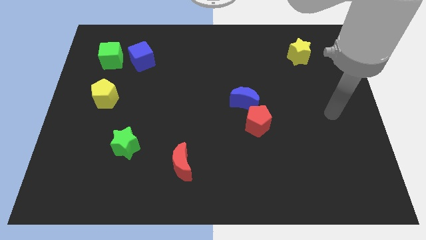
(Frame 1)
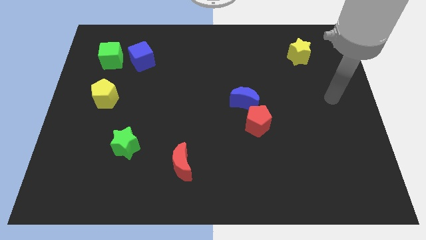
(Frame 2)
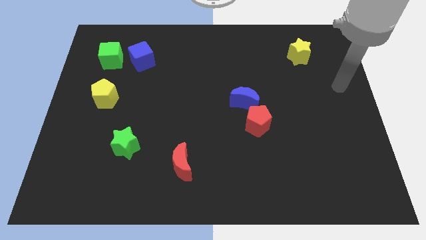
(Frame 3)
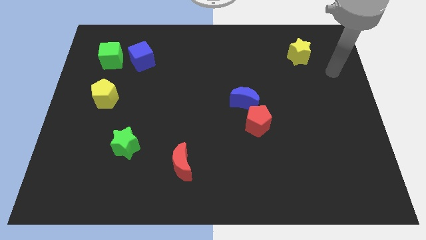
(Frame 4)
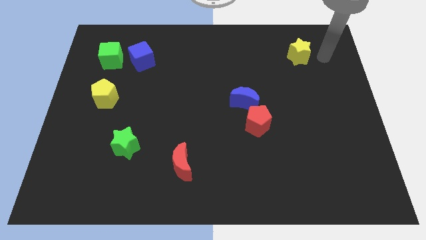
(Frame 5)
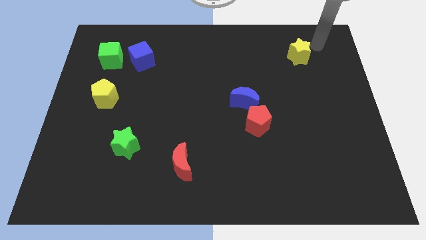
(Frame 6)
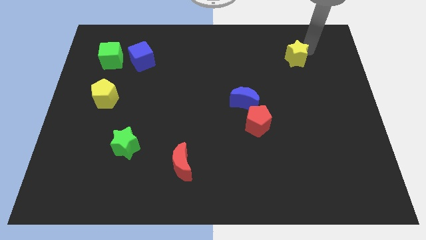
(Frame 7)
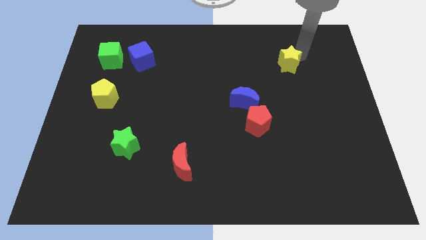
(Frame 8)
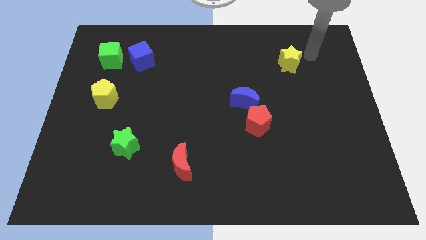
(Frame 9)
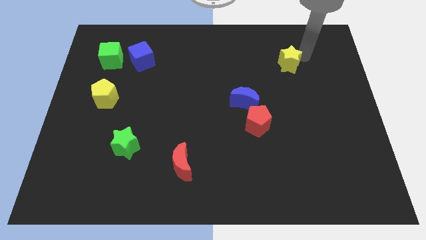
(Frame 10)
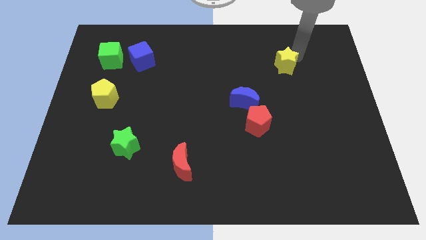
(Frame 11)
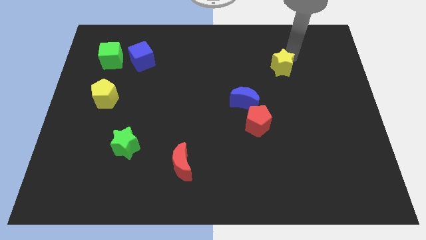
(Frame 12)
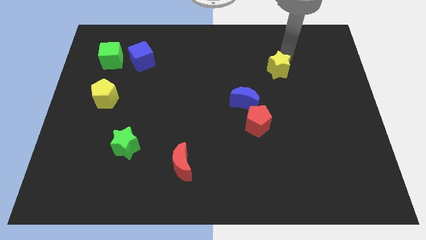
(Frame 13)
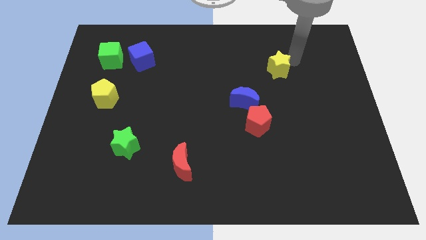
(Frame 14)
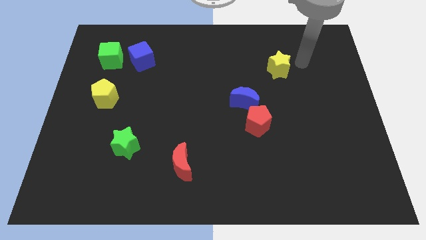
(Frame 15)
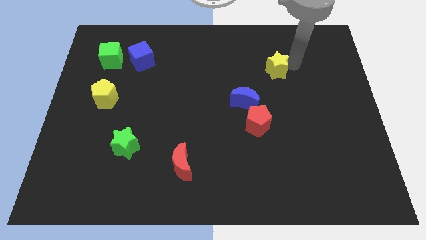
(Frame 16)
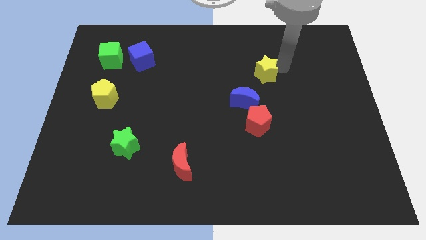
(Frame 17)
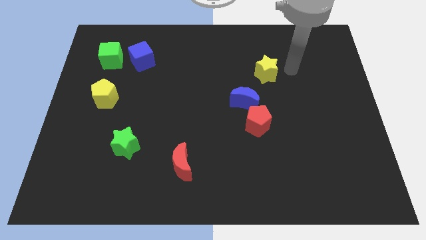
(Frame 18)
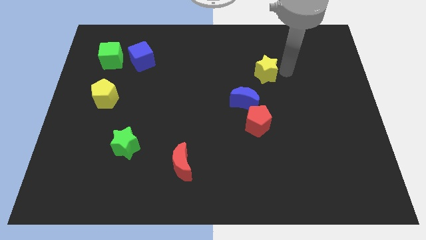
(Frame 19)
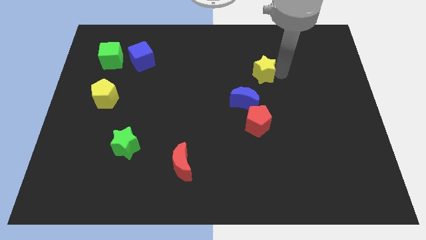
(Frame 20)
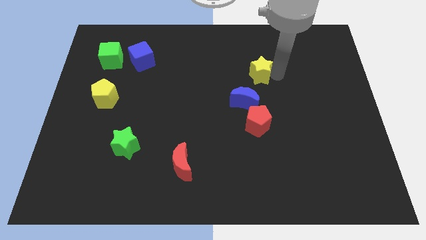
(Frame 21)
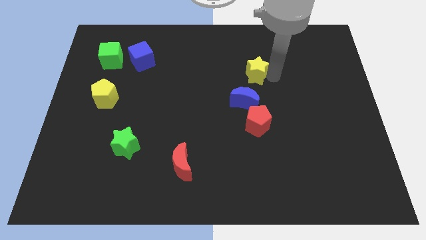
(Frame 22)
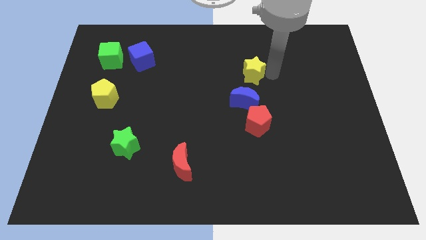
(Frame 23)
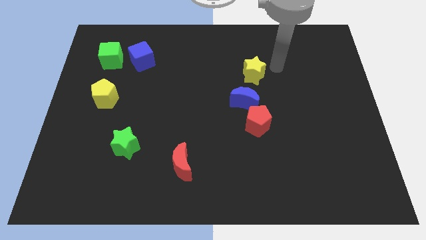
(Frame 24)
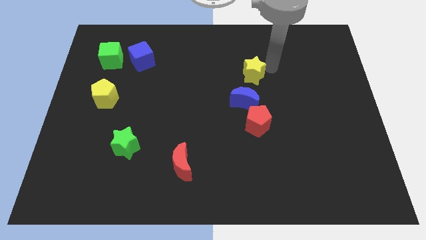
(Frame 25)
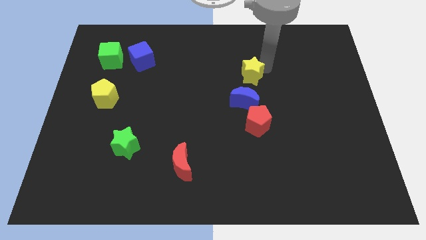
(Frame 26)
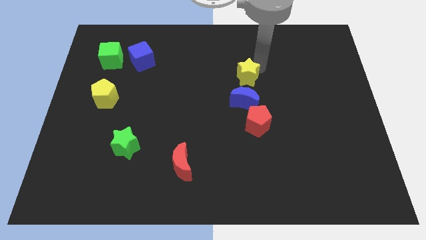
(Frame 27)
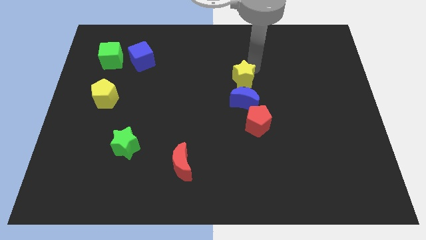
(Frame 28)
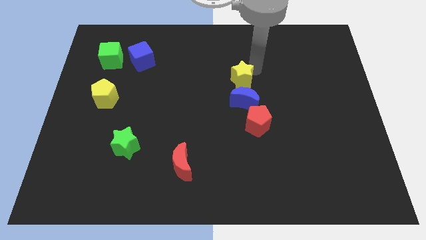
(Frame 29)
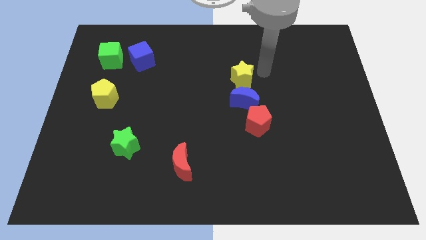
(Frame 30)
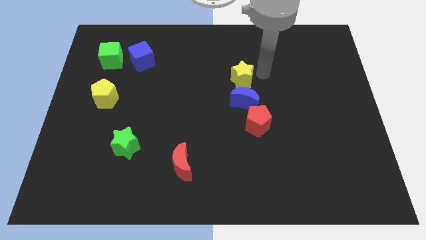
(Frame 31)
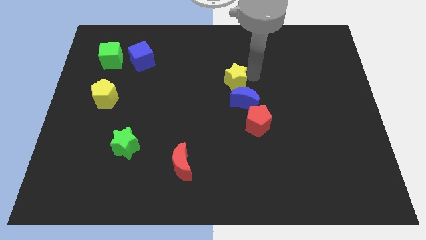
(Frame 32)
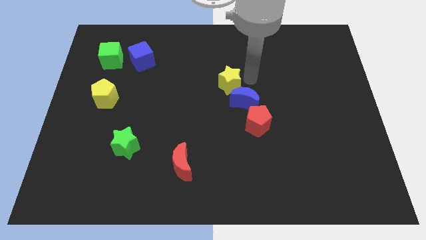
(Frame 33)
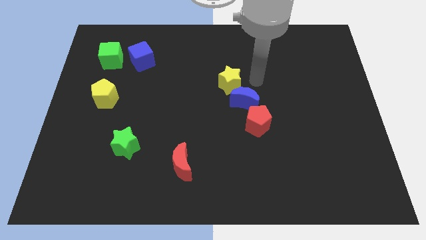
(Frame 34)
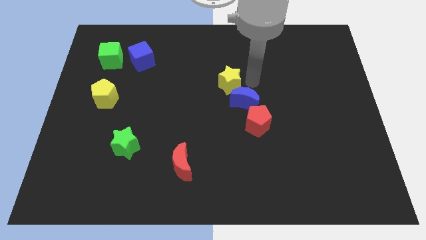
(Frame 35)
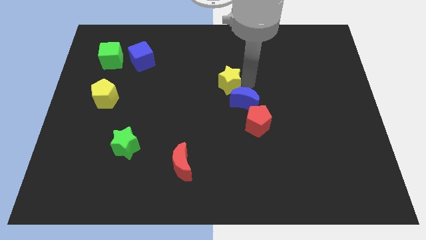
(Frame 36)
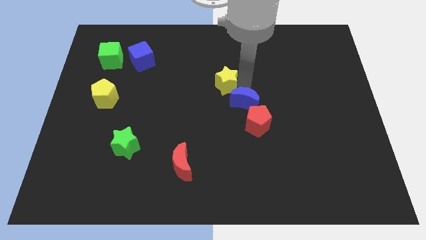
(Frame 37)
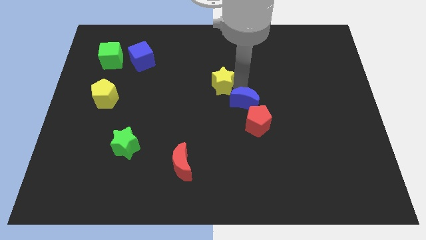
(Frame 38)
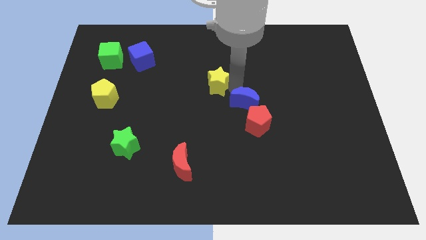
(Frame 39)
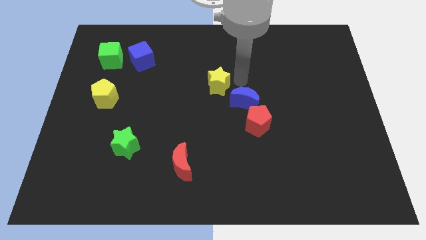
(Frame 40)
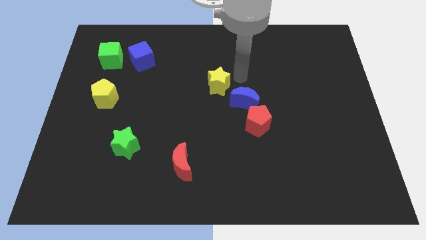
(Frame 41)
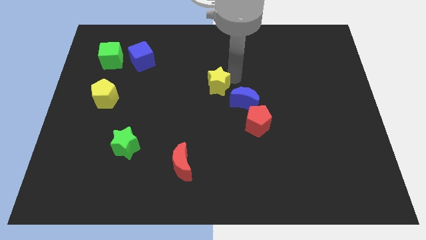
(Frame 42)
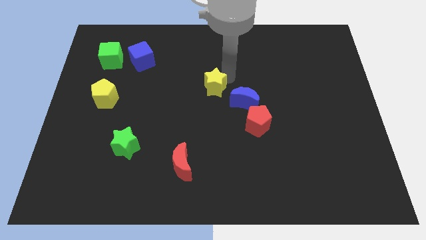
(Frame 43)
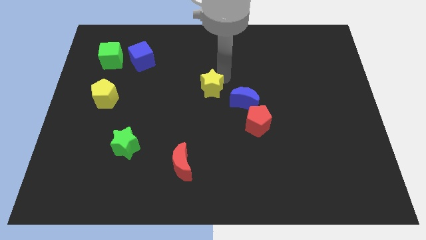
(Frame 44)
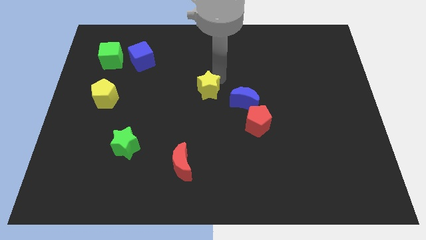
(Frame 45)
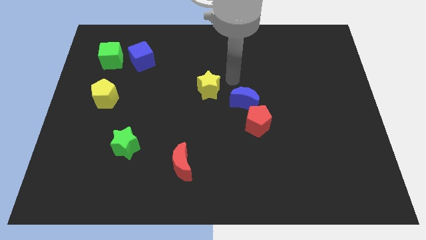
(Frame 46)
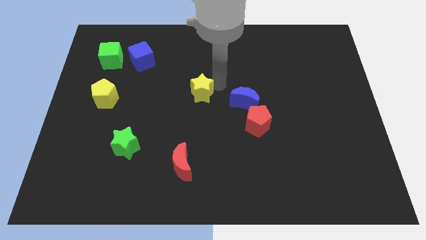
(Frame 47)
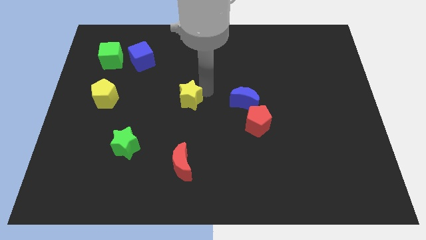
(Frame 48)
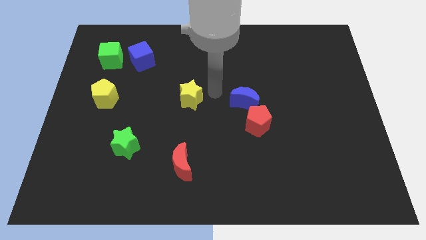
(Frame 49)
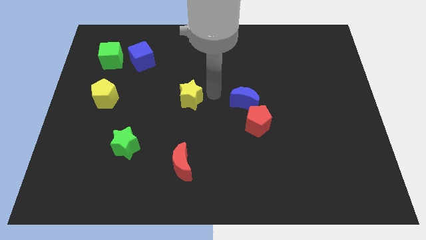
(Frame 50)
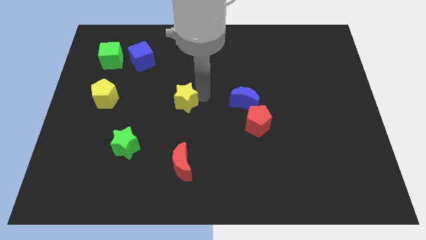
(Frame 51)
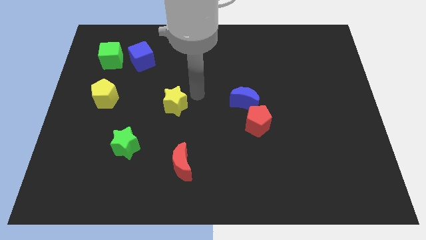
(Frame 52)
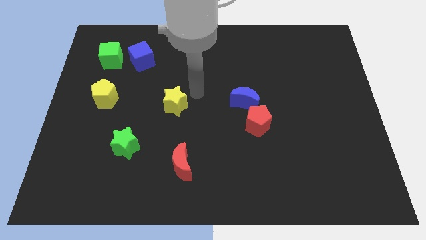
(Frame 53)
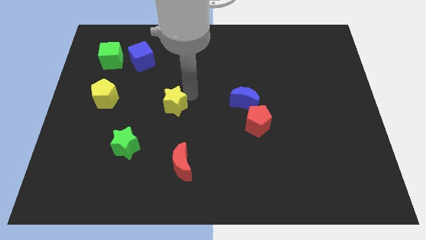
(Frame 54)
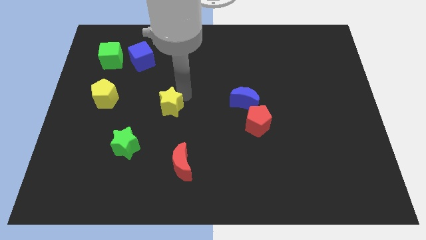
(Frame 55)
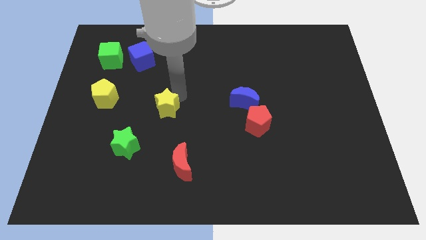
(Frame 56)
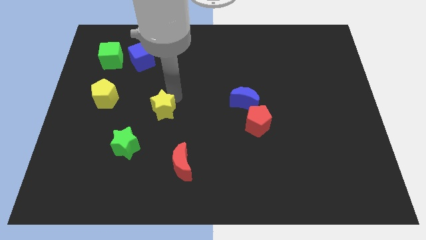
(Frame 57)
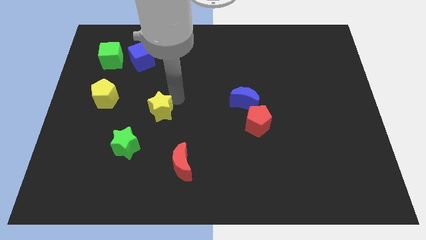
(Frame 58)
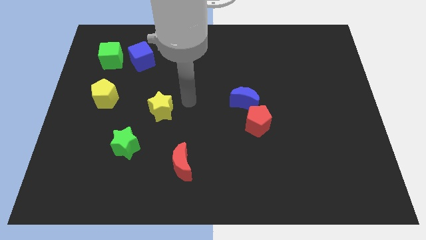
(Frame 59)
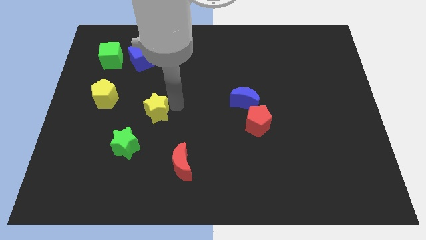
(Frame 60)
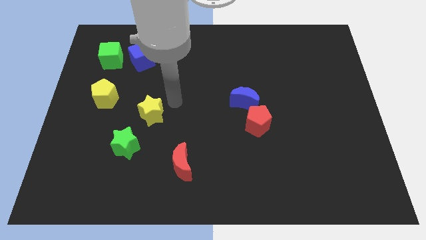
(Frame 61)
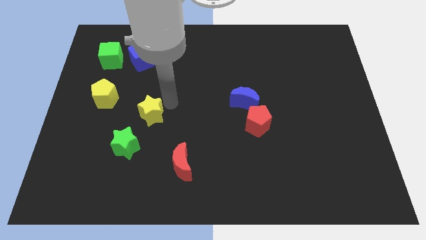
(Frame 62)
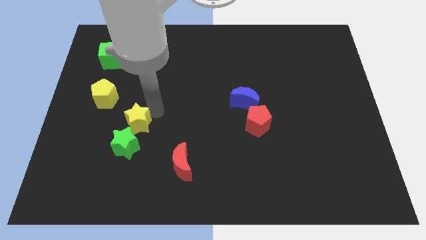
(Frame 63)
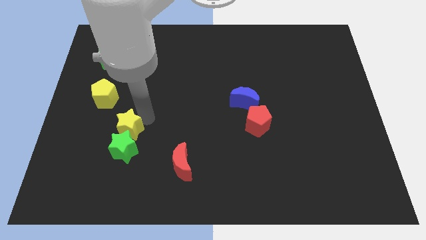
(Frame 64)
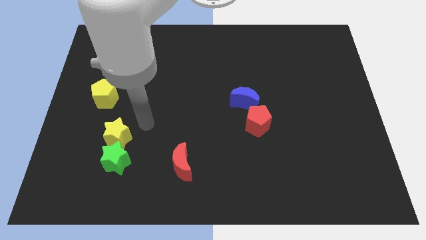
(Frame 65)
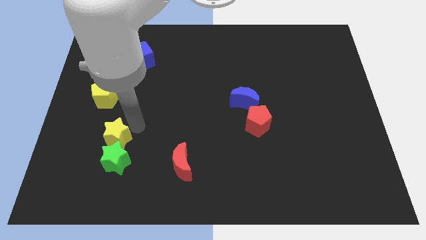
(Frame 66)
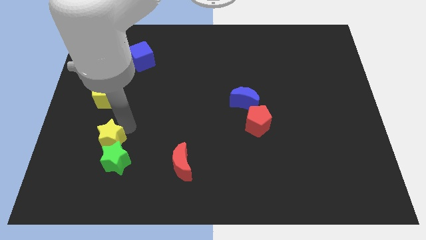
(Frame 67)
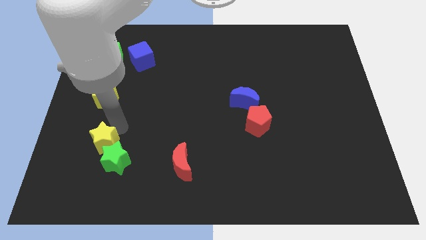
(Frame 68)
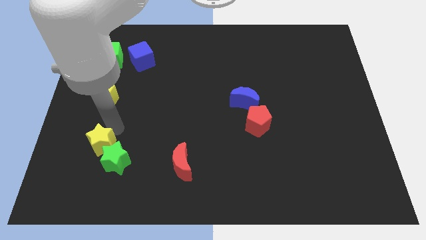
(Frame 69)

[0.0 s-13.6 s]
move the yellow star just left of the green star

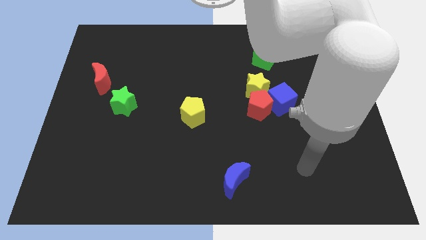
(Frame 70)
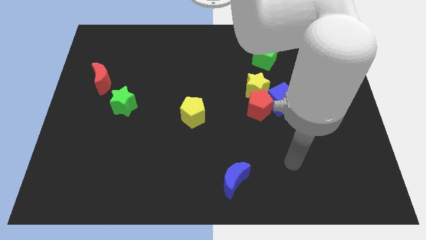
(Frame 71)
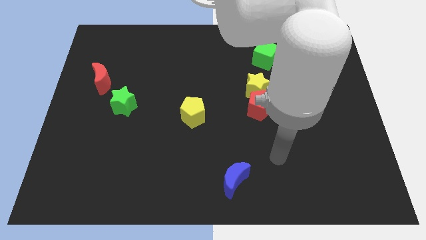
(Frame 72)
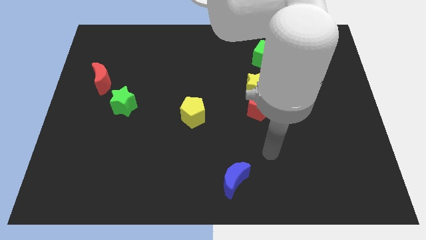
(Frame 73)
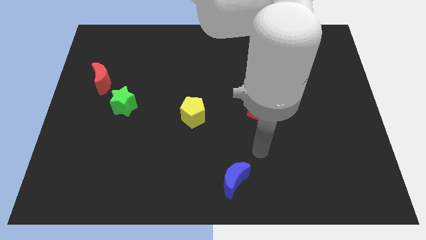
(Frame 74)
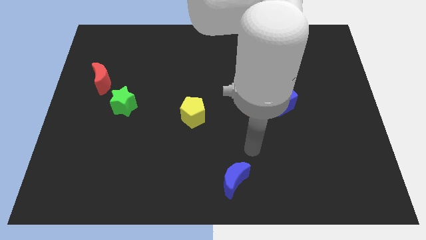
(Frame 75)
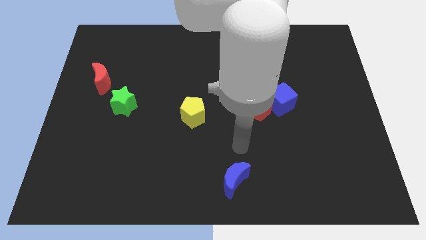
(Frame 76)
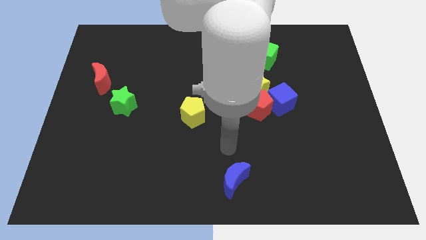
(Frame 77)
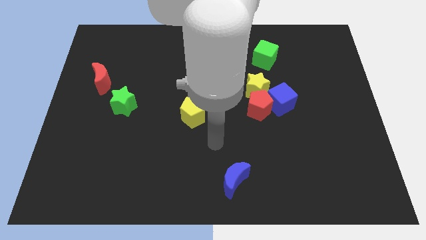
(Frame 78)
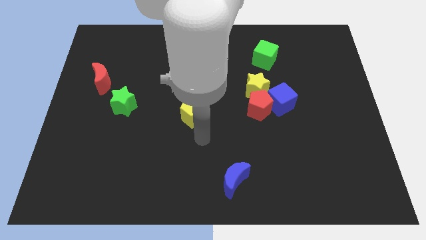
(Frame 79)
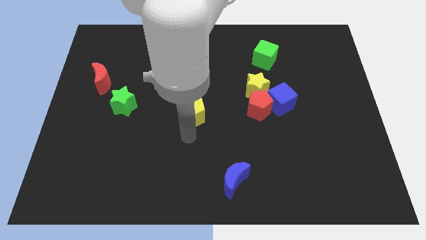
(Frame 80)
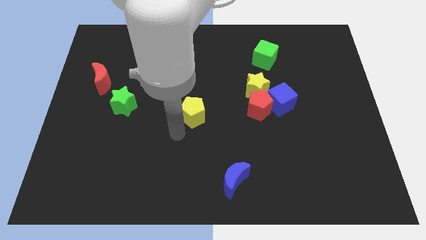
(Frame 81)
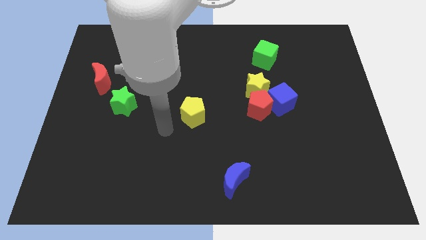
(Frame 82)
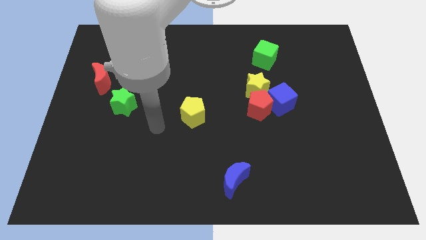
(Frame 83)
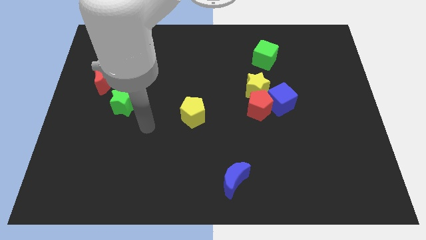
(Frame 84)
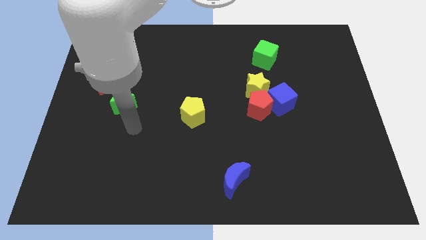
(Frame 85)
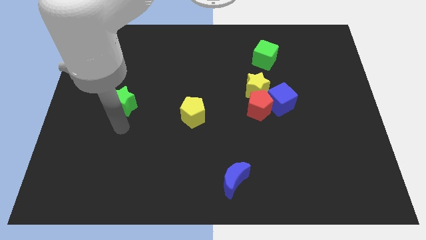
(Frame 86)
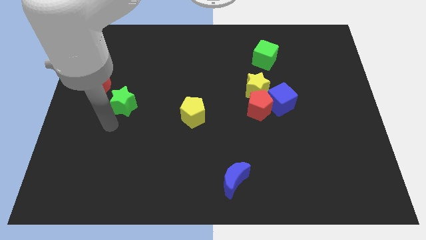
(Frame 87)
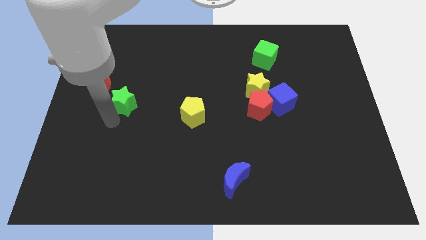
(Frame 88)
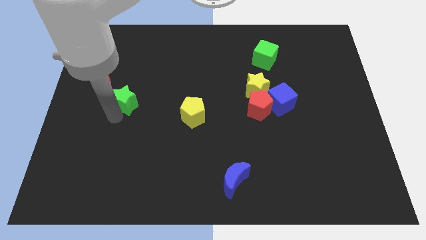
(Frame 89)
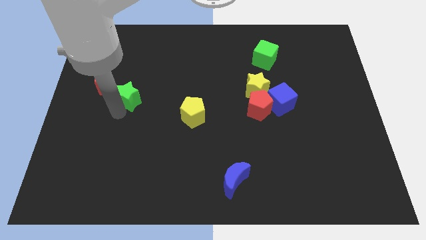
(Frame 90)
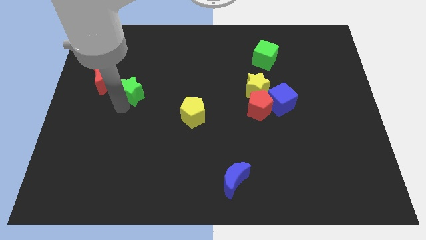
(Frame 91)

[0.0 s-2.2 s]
move the green star just right of the red moon
